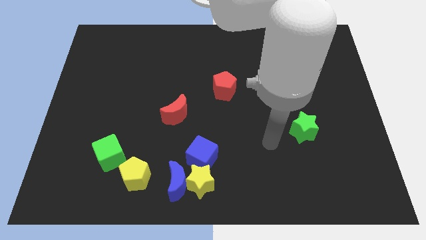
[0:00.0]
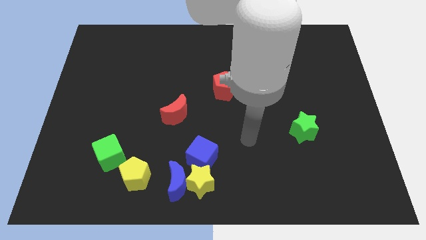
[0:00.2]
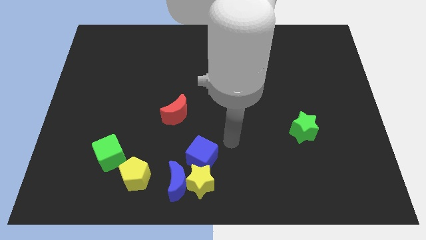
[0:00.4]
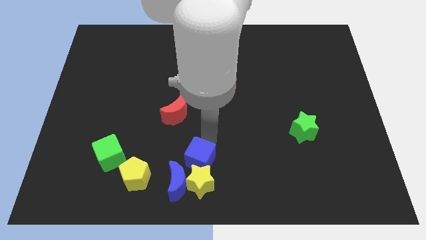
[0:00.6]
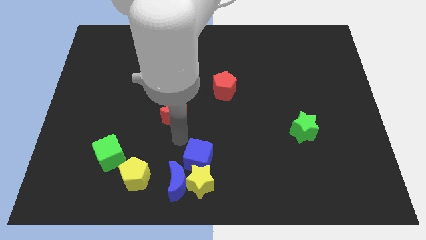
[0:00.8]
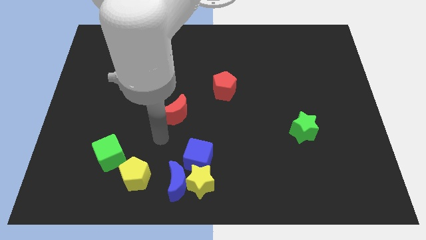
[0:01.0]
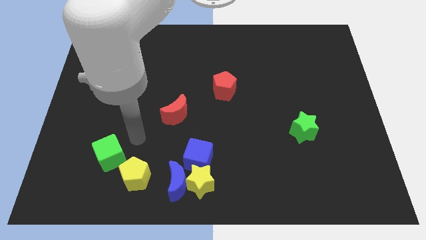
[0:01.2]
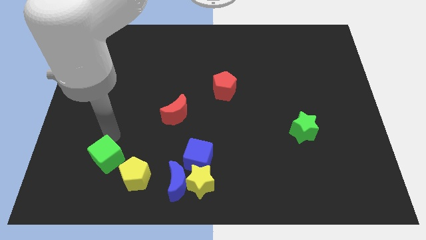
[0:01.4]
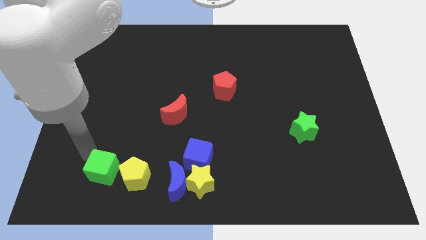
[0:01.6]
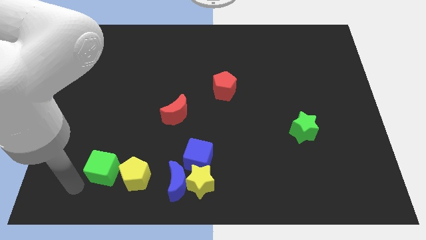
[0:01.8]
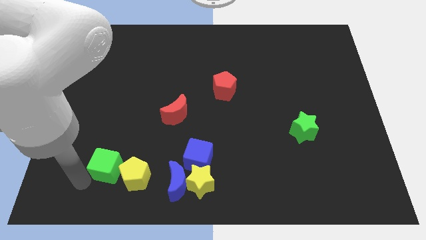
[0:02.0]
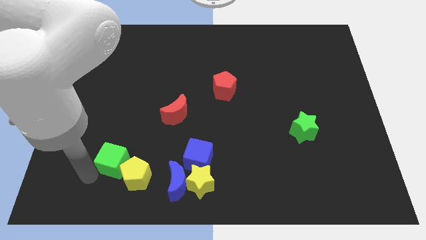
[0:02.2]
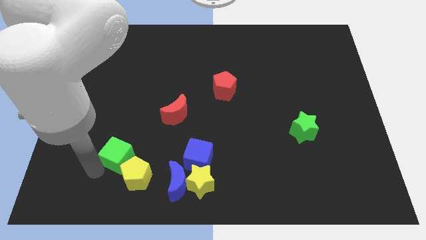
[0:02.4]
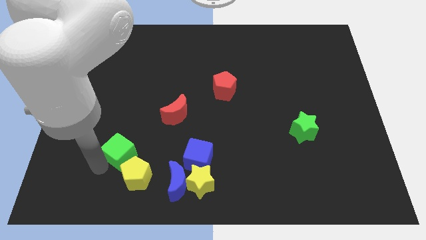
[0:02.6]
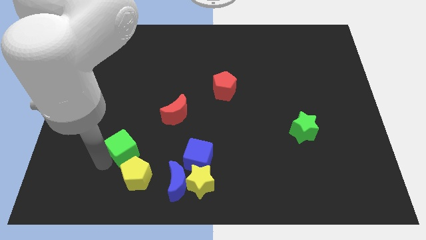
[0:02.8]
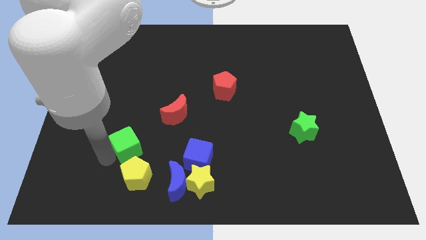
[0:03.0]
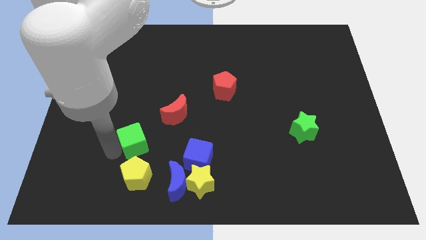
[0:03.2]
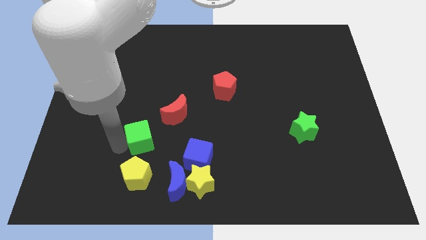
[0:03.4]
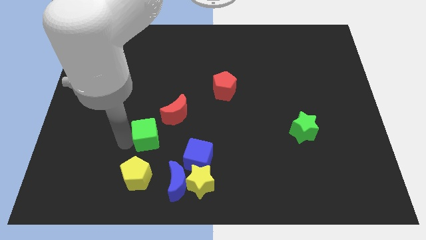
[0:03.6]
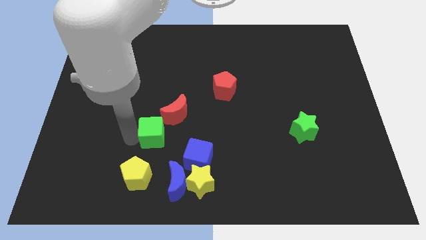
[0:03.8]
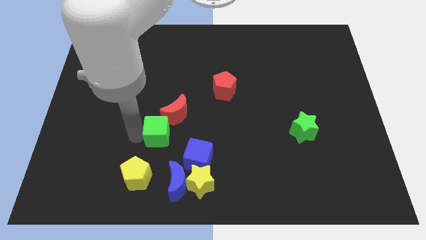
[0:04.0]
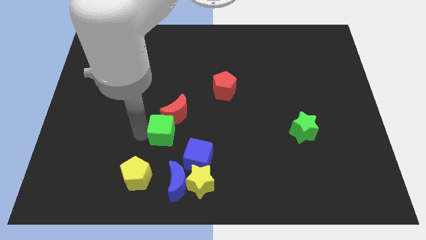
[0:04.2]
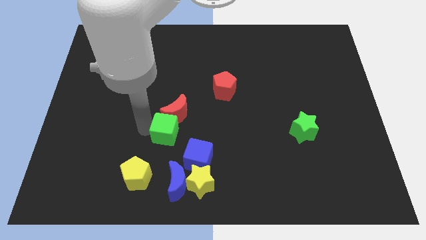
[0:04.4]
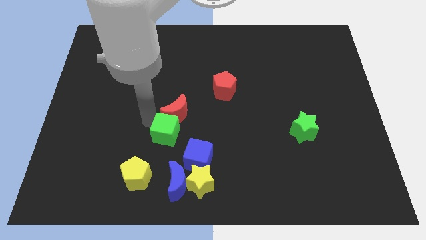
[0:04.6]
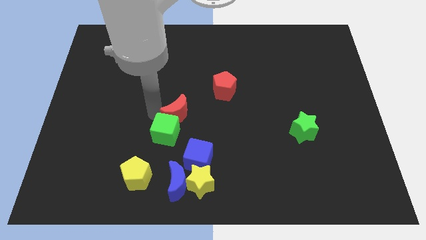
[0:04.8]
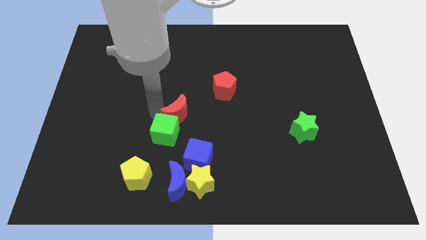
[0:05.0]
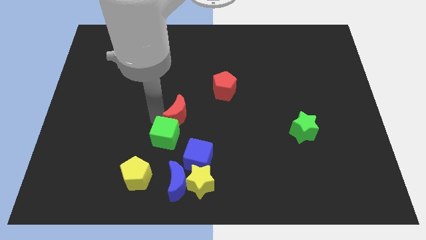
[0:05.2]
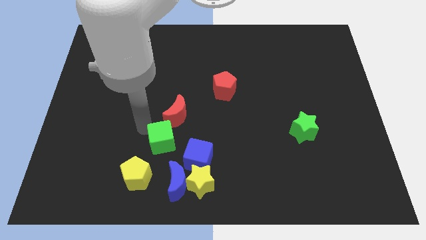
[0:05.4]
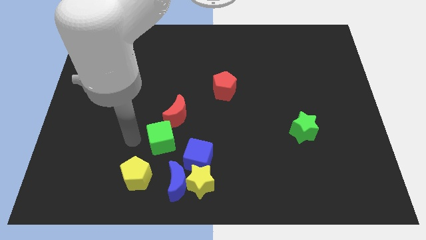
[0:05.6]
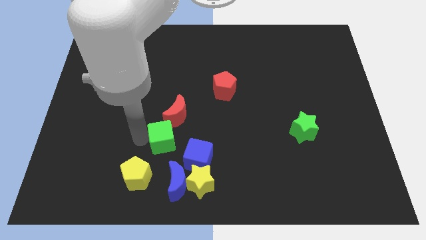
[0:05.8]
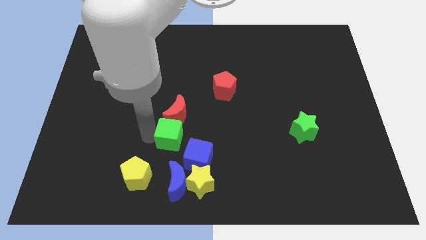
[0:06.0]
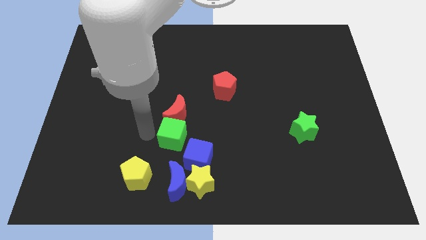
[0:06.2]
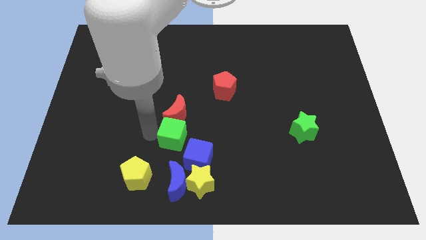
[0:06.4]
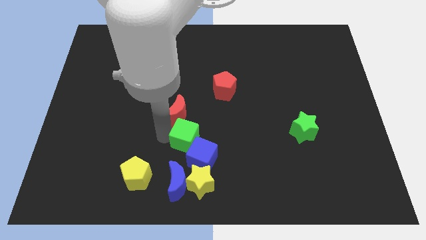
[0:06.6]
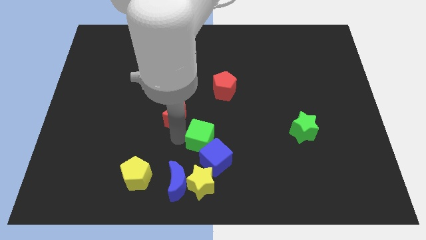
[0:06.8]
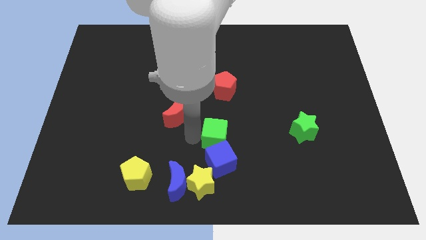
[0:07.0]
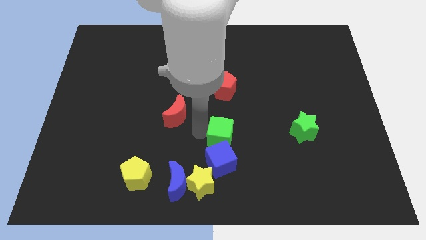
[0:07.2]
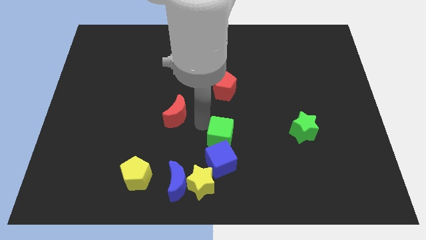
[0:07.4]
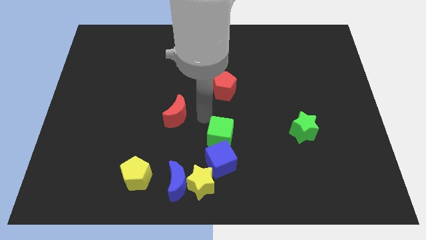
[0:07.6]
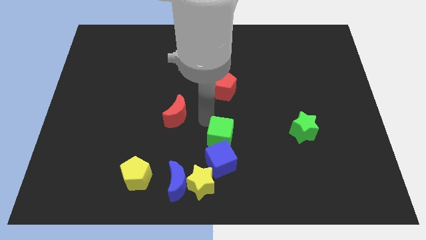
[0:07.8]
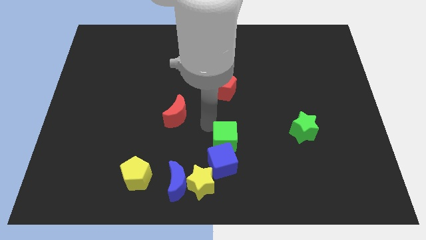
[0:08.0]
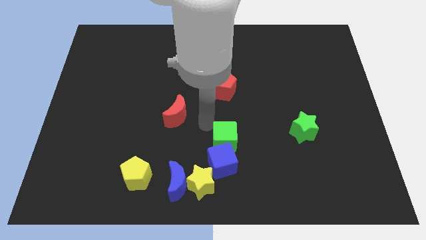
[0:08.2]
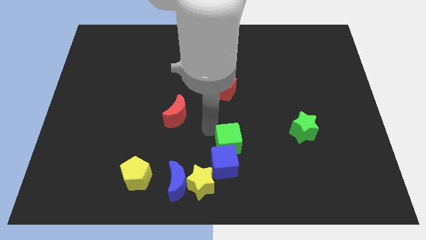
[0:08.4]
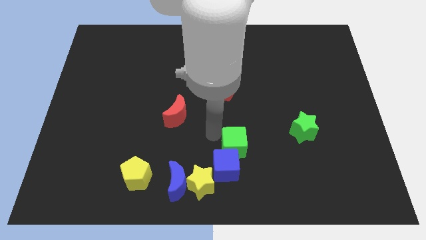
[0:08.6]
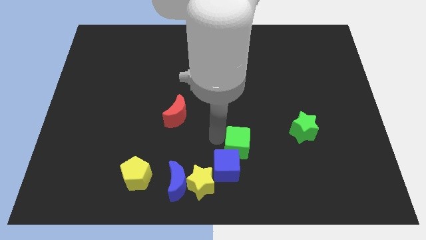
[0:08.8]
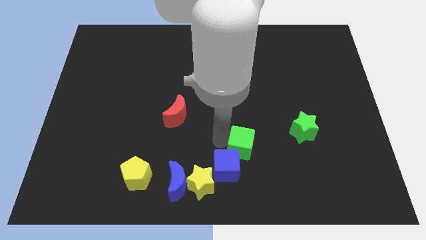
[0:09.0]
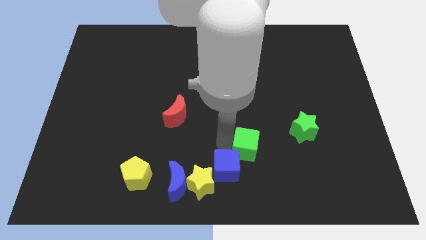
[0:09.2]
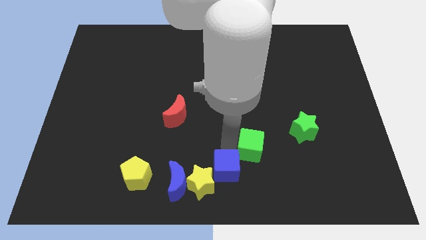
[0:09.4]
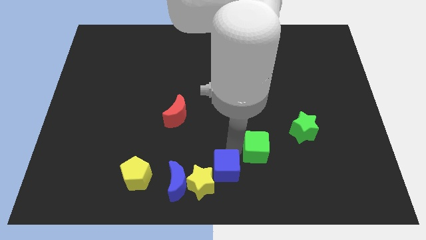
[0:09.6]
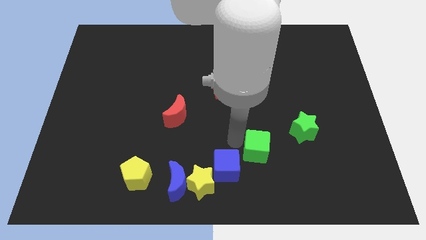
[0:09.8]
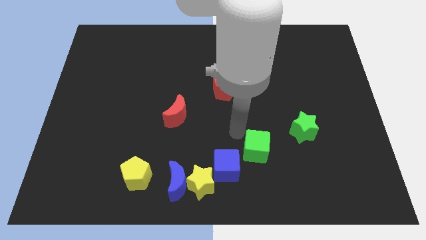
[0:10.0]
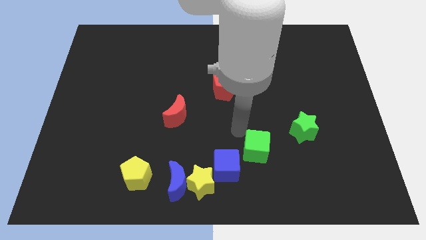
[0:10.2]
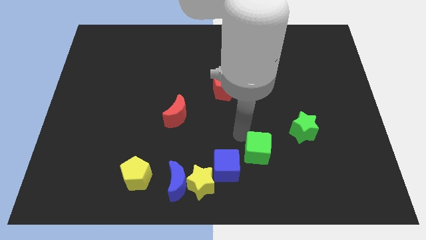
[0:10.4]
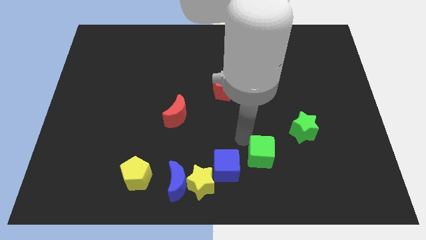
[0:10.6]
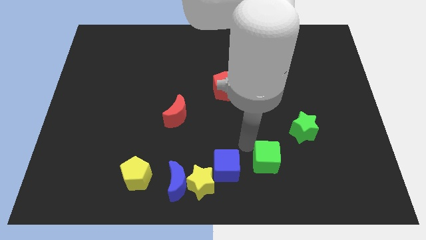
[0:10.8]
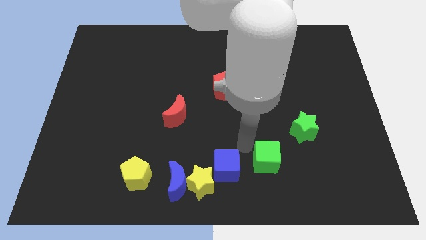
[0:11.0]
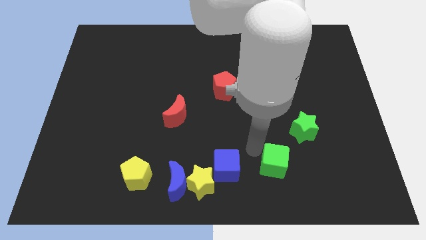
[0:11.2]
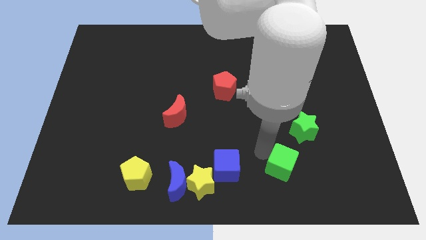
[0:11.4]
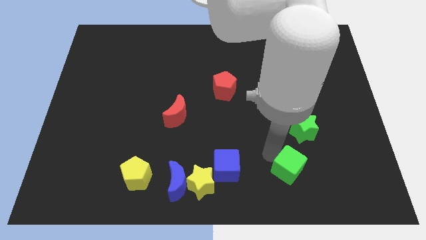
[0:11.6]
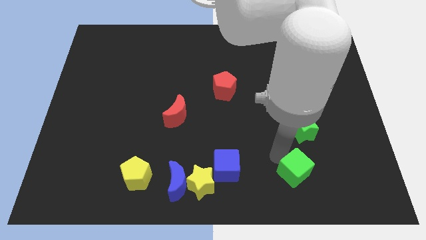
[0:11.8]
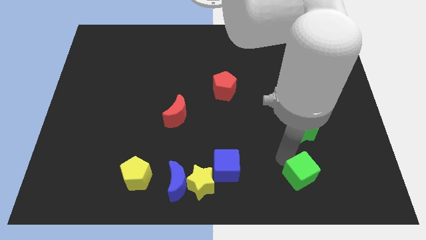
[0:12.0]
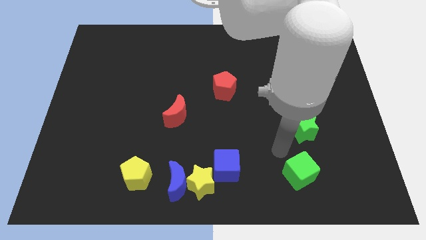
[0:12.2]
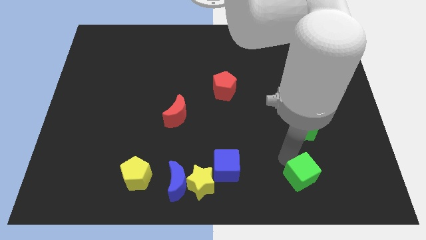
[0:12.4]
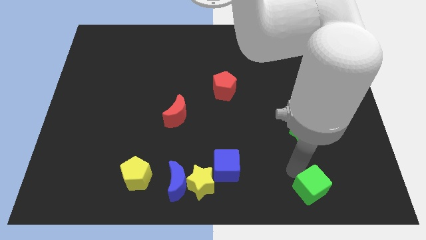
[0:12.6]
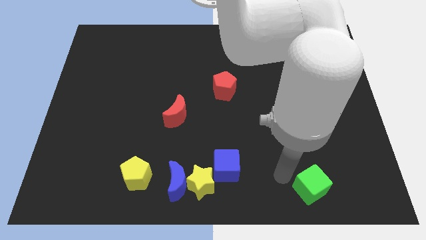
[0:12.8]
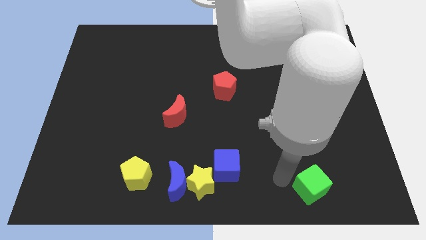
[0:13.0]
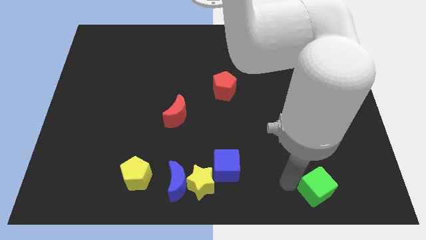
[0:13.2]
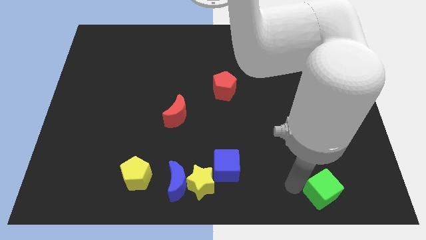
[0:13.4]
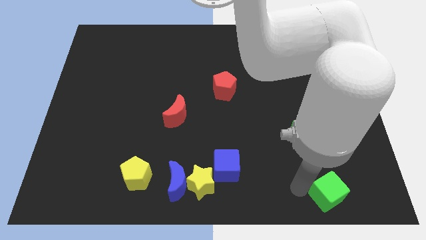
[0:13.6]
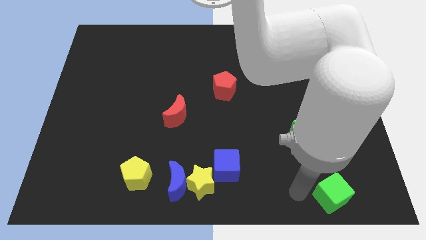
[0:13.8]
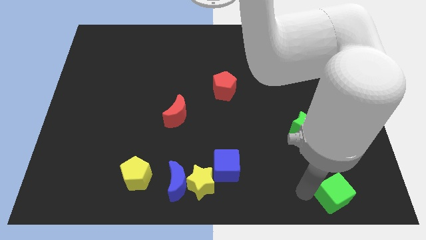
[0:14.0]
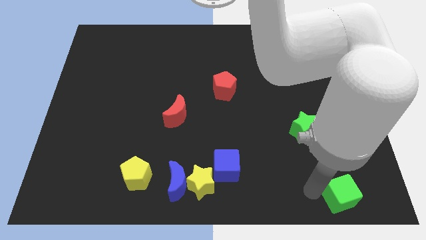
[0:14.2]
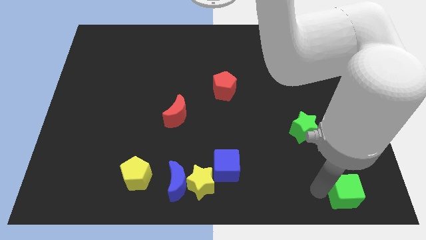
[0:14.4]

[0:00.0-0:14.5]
put the green cube to the bottom right
